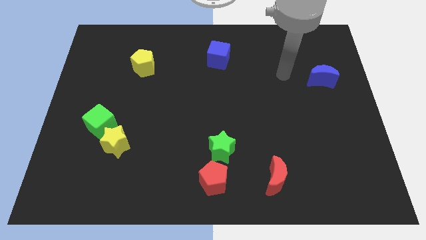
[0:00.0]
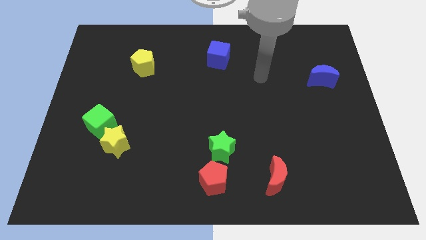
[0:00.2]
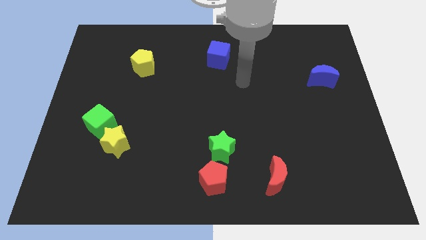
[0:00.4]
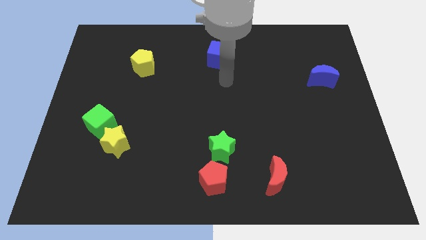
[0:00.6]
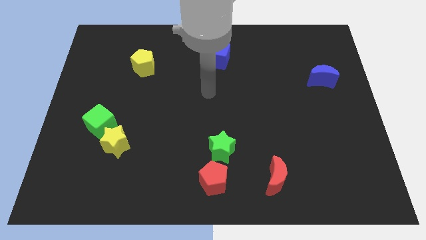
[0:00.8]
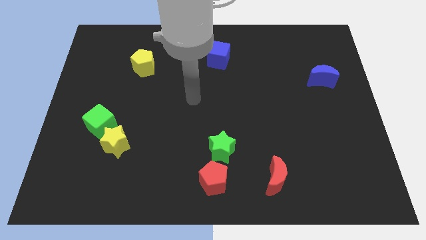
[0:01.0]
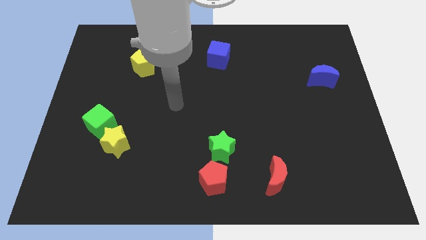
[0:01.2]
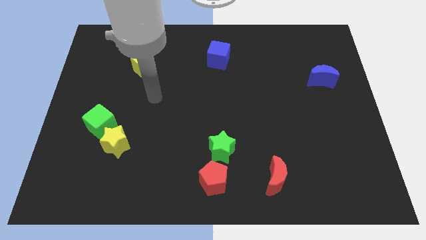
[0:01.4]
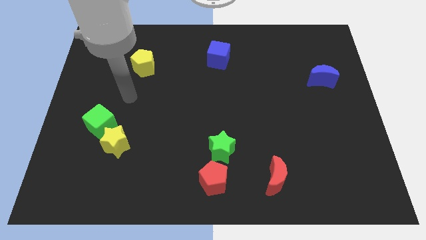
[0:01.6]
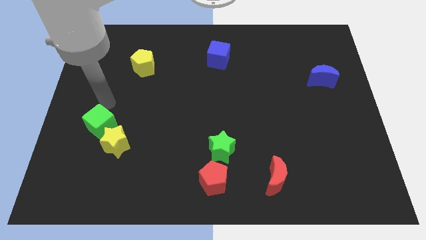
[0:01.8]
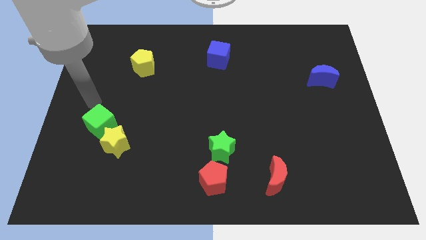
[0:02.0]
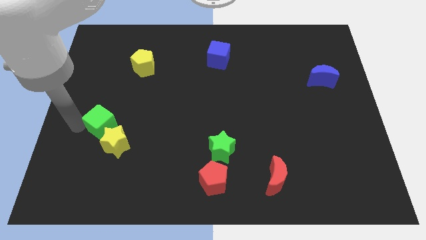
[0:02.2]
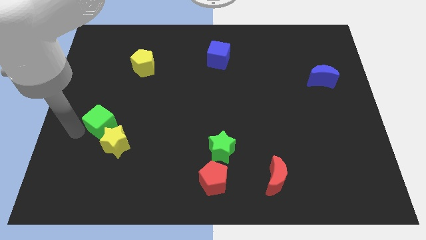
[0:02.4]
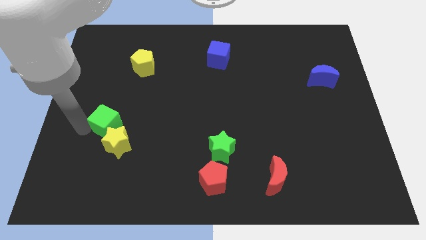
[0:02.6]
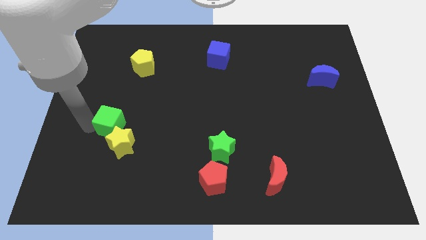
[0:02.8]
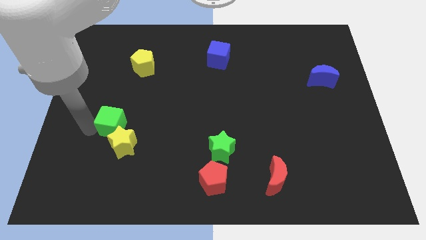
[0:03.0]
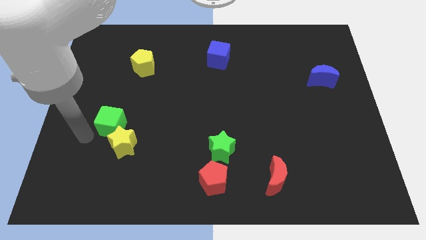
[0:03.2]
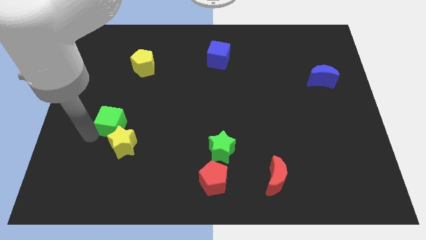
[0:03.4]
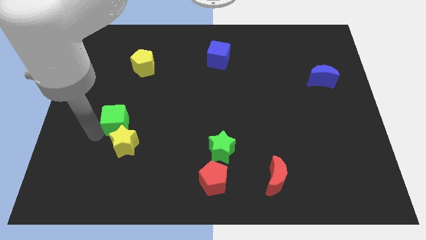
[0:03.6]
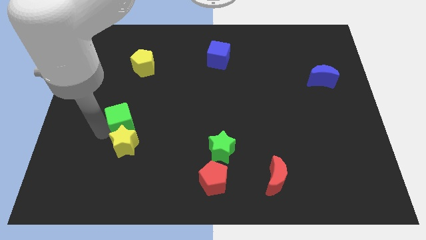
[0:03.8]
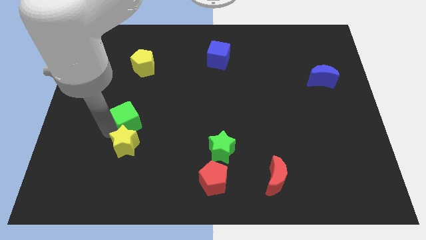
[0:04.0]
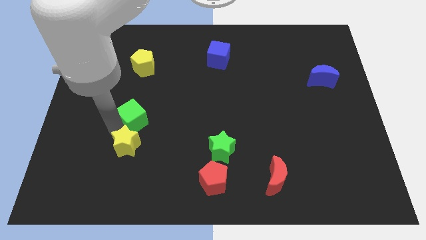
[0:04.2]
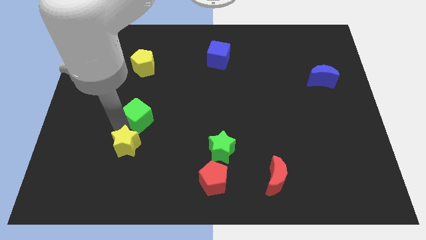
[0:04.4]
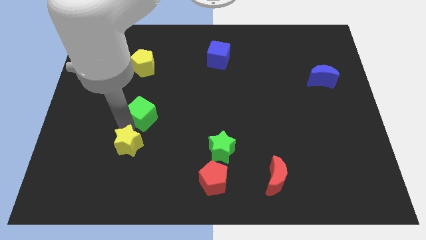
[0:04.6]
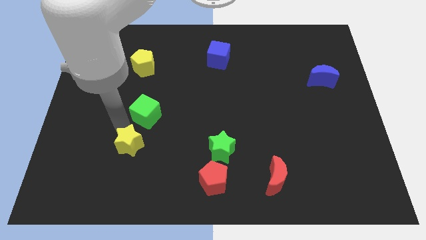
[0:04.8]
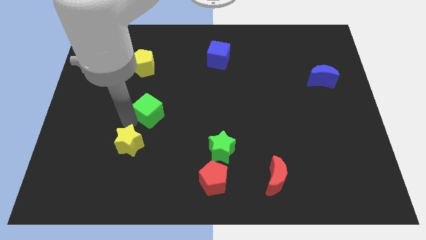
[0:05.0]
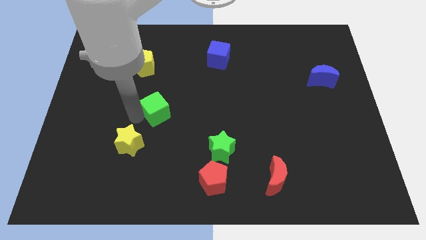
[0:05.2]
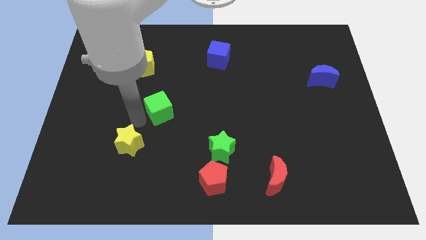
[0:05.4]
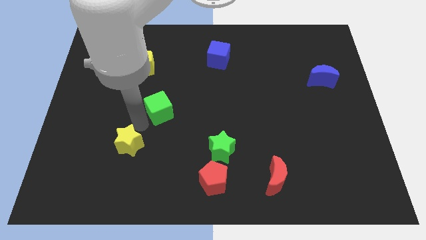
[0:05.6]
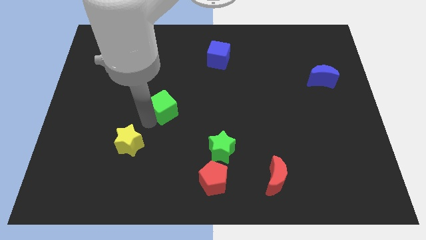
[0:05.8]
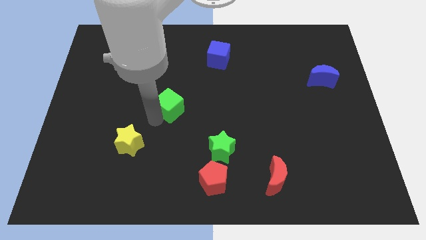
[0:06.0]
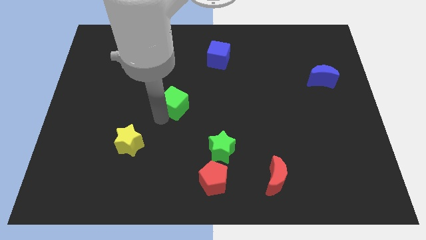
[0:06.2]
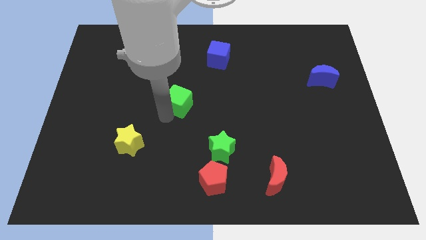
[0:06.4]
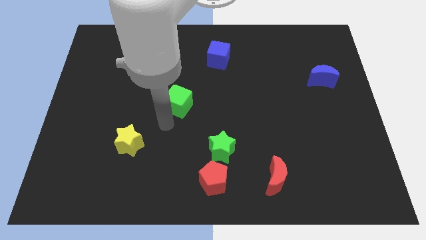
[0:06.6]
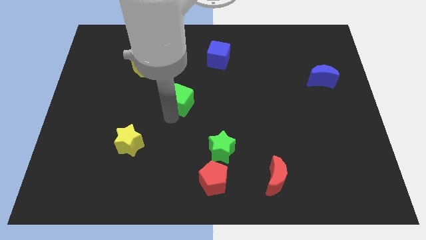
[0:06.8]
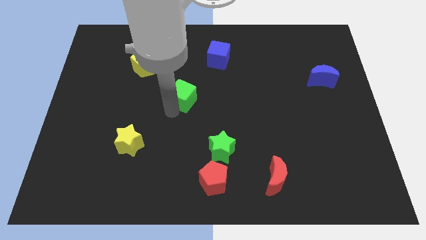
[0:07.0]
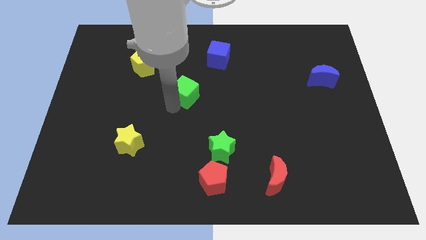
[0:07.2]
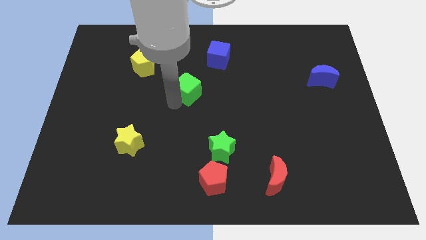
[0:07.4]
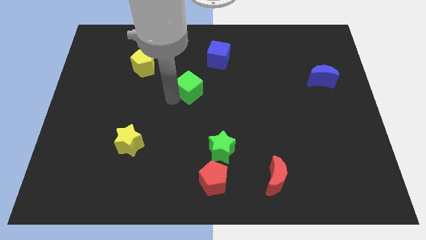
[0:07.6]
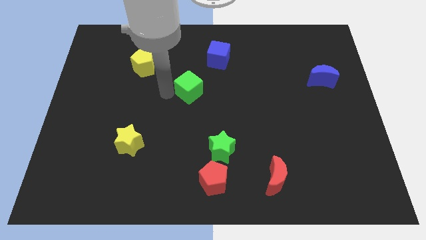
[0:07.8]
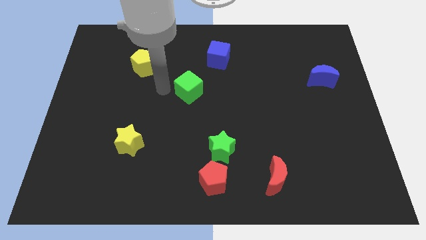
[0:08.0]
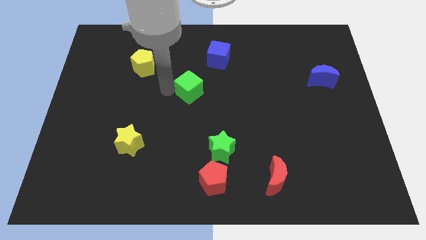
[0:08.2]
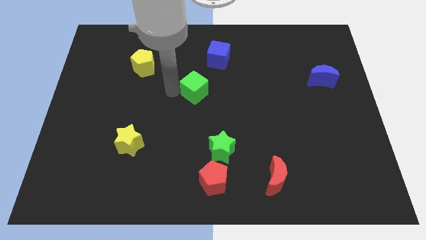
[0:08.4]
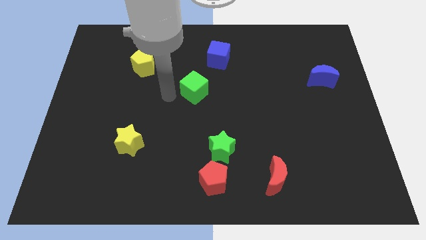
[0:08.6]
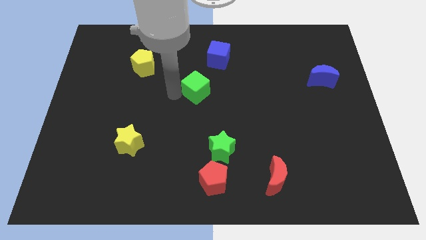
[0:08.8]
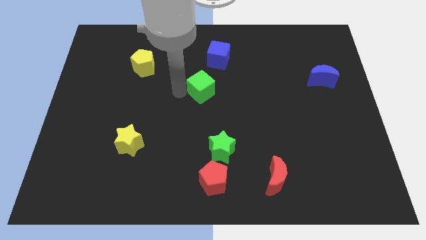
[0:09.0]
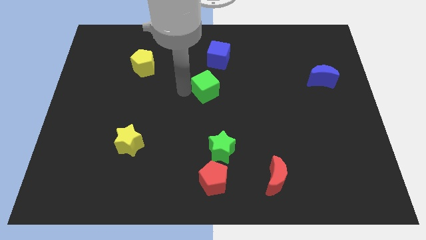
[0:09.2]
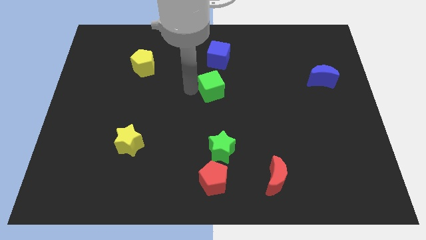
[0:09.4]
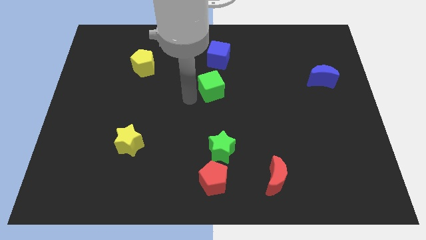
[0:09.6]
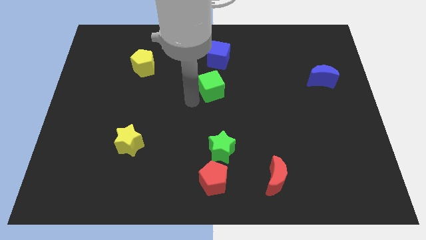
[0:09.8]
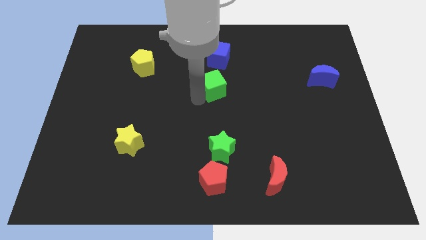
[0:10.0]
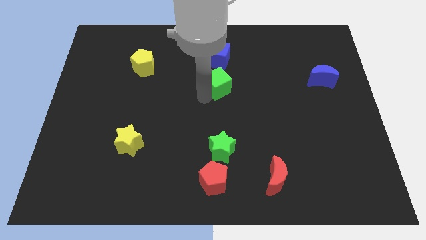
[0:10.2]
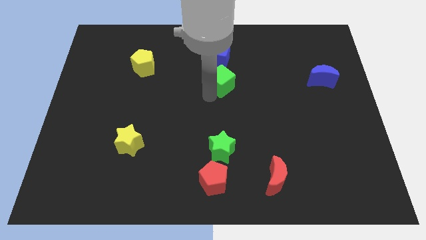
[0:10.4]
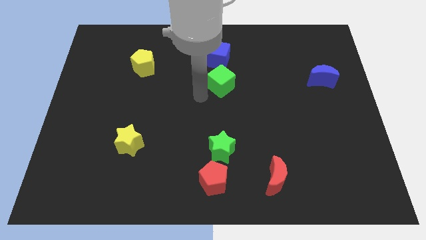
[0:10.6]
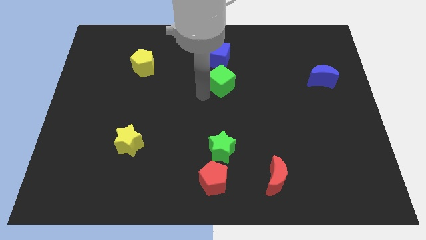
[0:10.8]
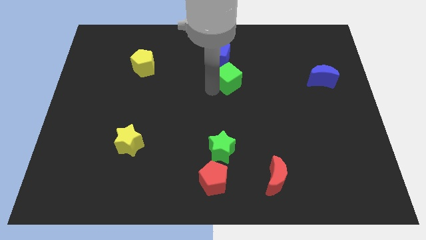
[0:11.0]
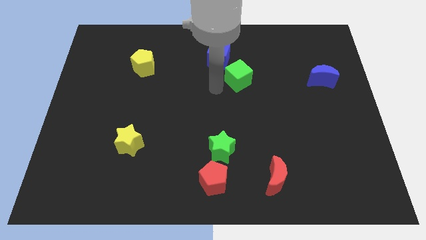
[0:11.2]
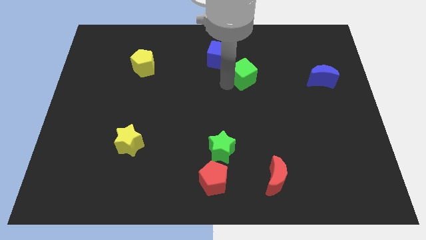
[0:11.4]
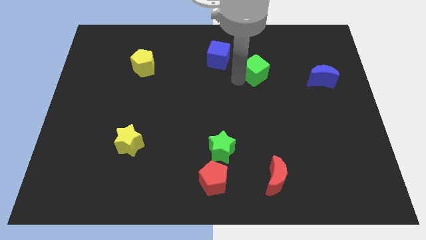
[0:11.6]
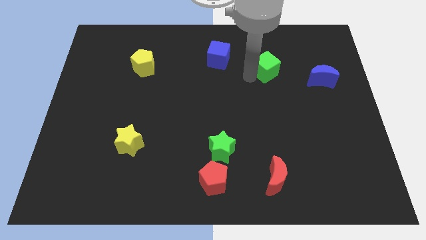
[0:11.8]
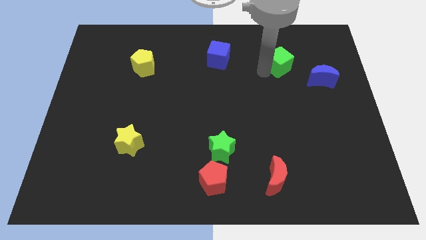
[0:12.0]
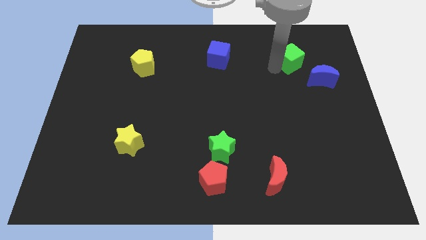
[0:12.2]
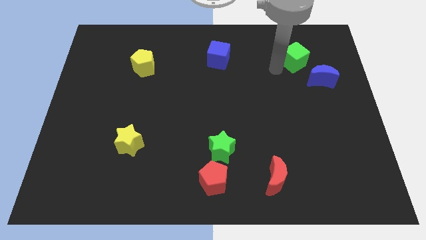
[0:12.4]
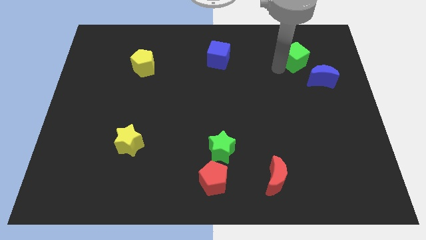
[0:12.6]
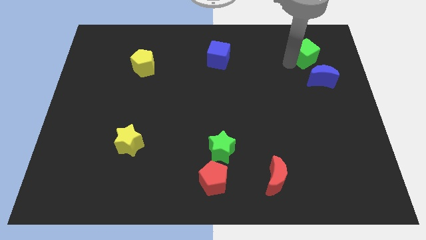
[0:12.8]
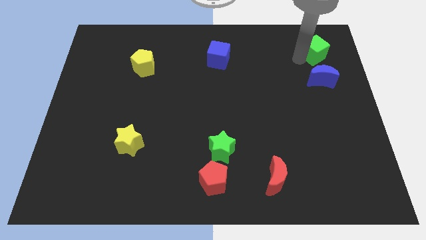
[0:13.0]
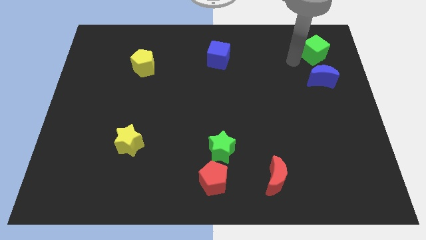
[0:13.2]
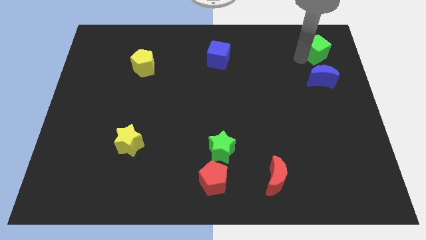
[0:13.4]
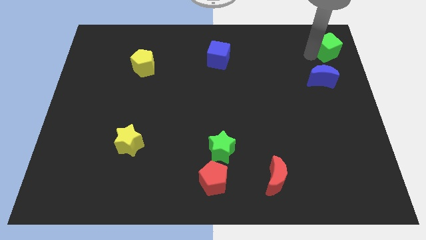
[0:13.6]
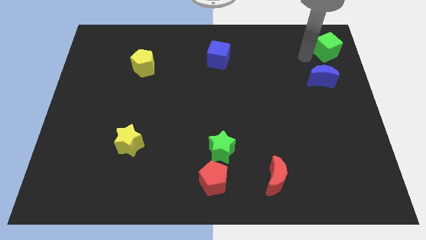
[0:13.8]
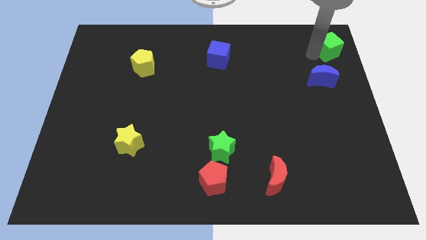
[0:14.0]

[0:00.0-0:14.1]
push the green cube to the top right corner
